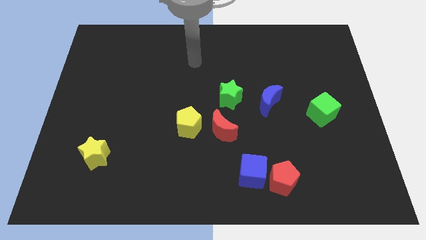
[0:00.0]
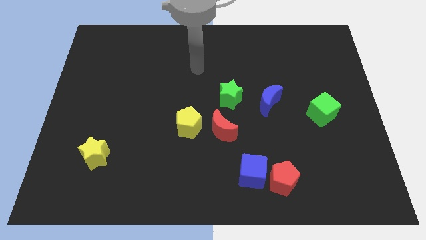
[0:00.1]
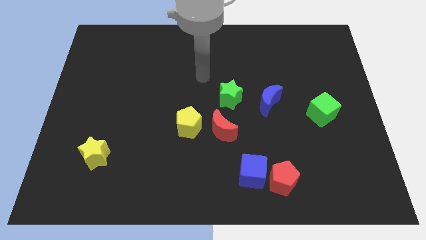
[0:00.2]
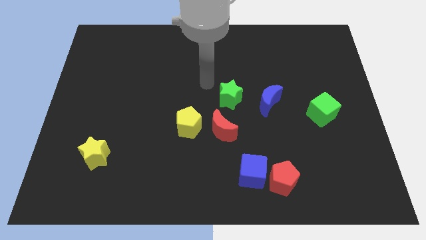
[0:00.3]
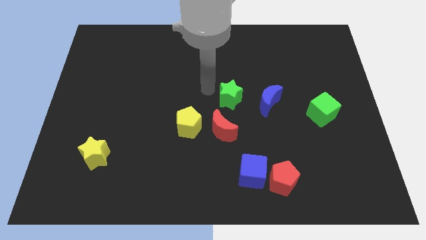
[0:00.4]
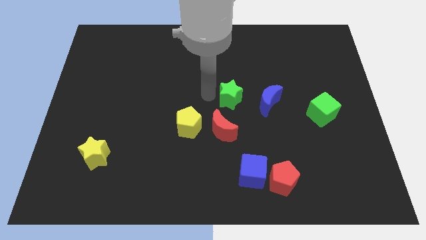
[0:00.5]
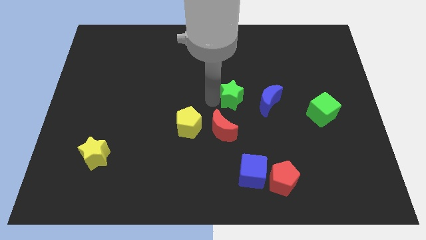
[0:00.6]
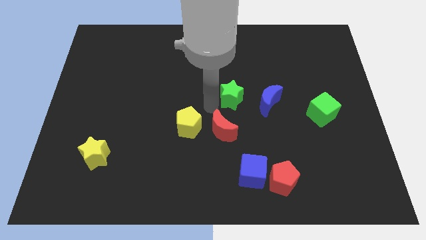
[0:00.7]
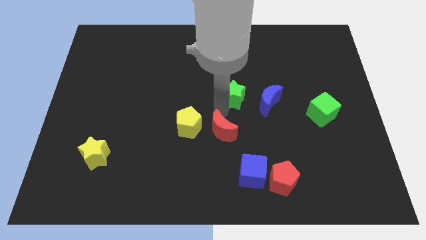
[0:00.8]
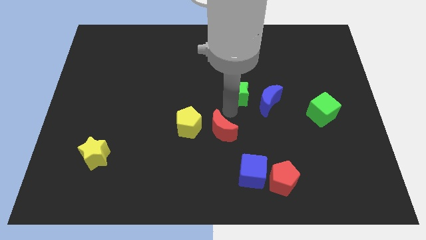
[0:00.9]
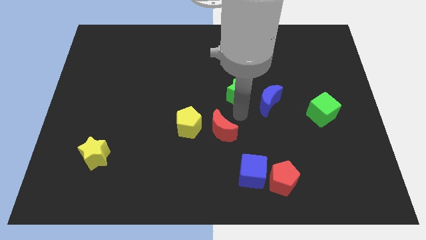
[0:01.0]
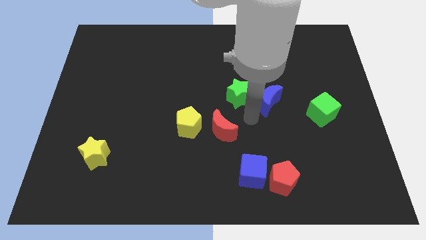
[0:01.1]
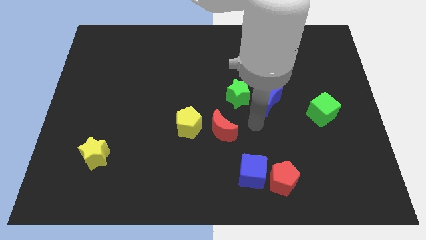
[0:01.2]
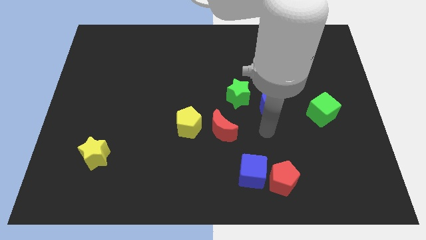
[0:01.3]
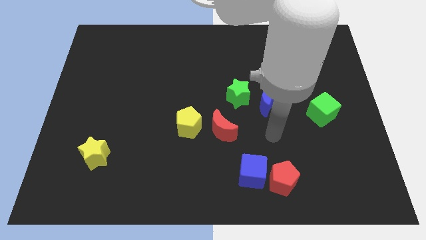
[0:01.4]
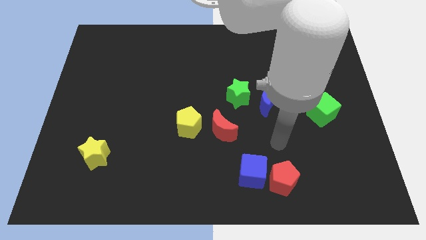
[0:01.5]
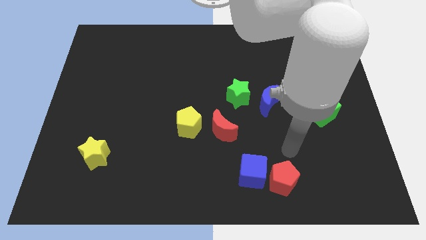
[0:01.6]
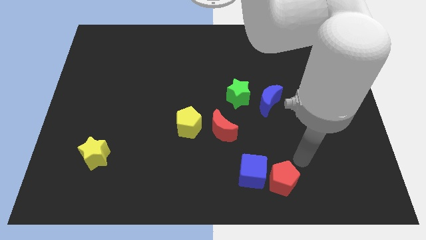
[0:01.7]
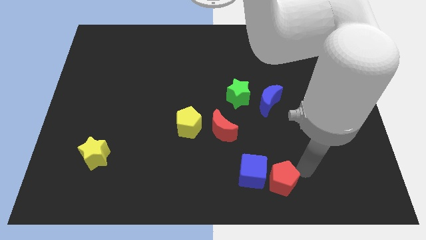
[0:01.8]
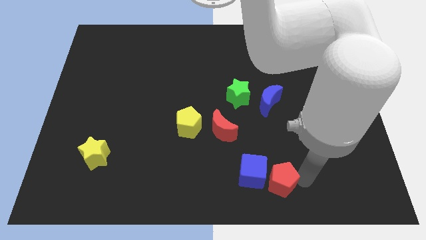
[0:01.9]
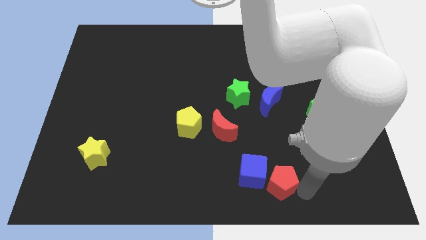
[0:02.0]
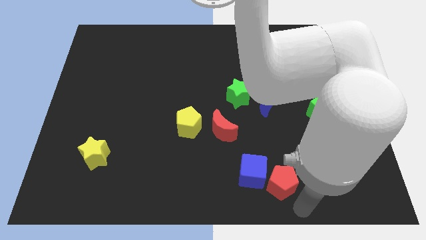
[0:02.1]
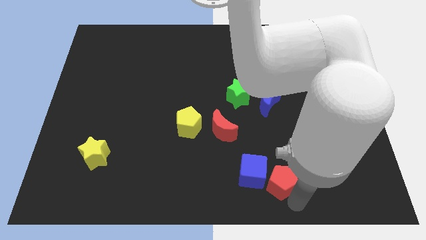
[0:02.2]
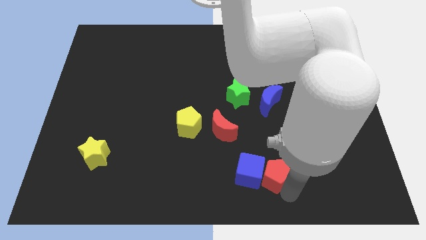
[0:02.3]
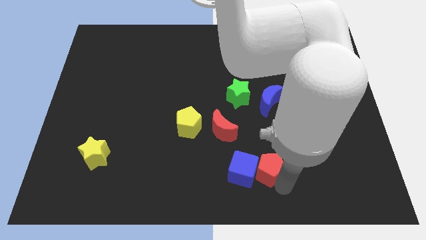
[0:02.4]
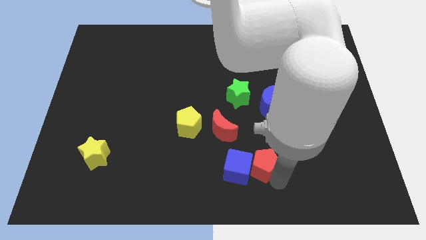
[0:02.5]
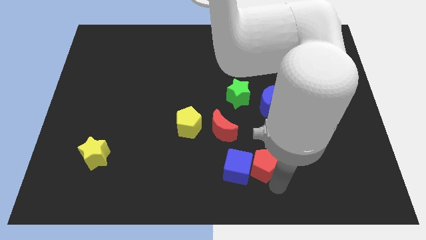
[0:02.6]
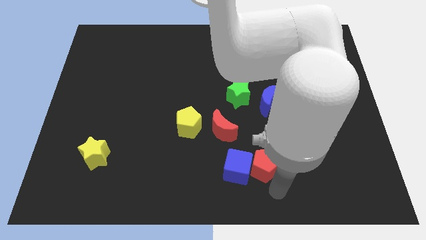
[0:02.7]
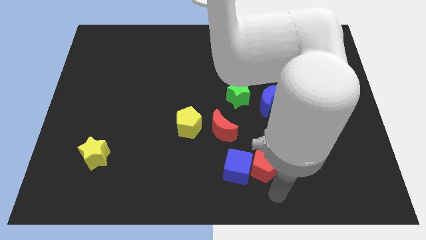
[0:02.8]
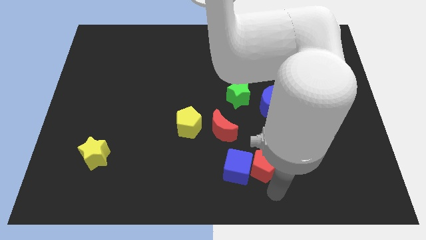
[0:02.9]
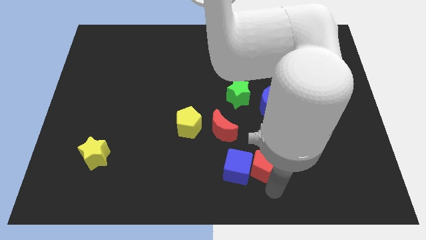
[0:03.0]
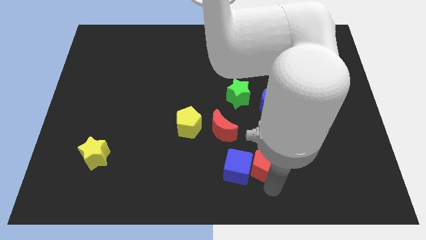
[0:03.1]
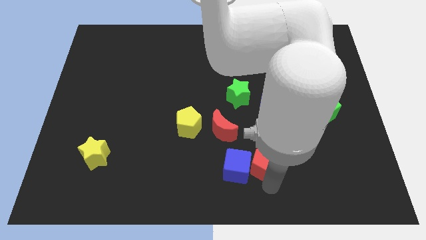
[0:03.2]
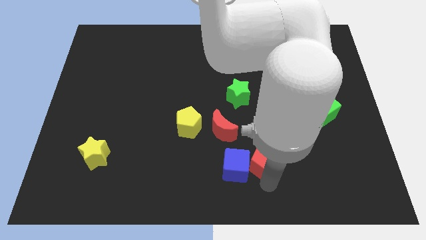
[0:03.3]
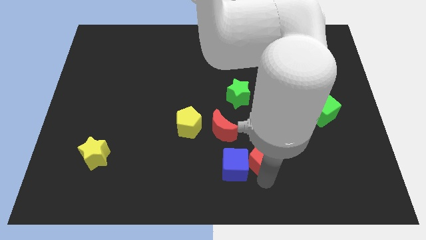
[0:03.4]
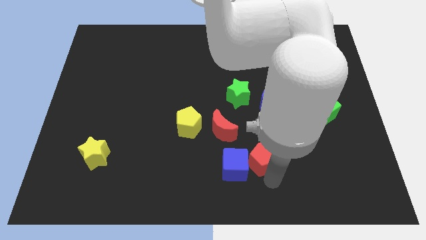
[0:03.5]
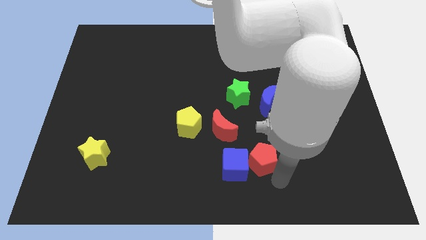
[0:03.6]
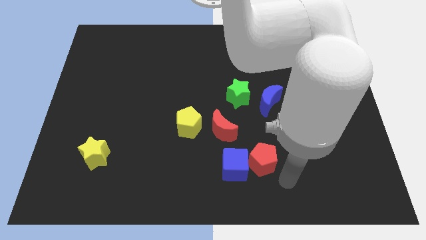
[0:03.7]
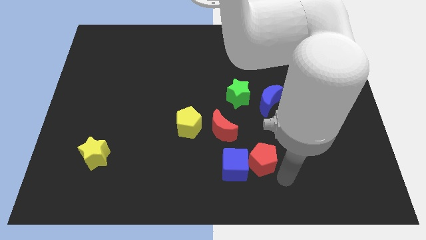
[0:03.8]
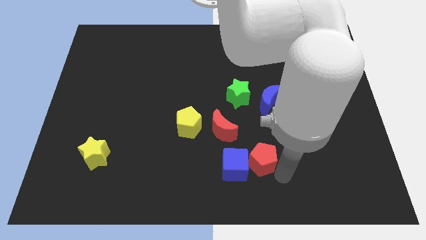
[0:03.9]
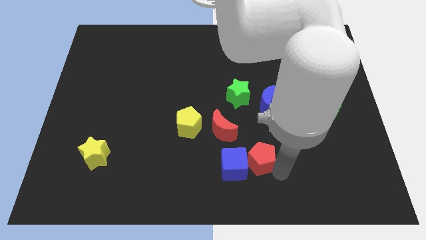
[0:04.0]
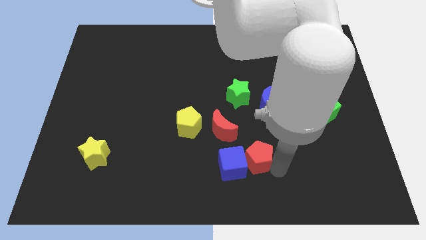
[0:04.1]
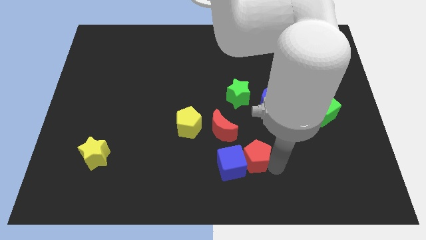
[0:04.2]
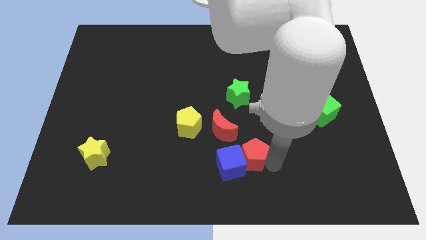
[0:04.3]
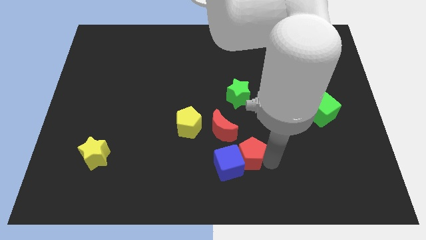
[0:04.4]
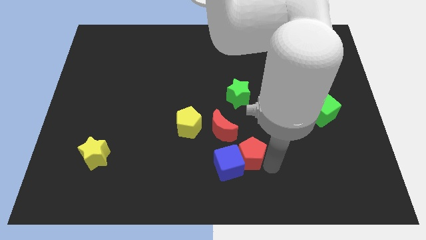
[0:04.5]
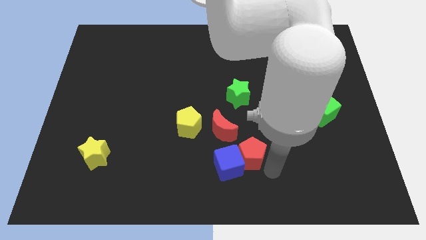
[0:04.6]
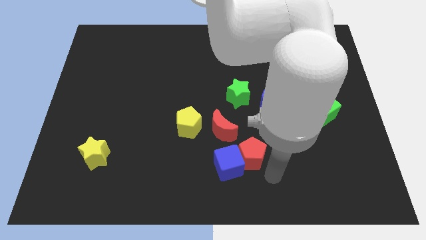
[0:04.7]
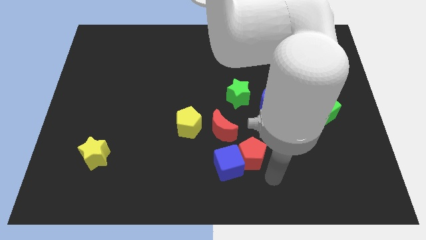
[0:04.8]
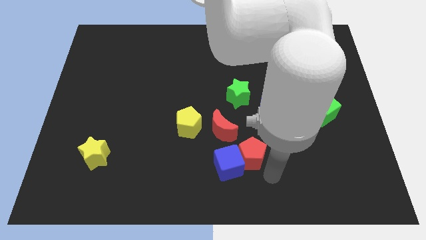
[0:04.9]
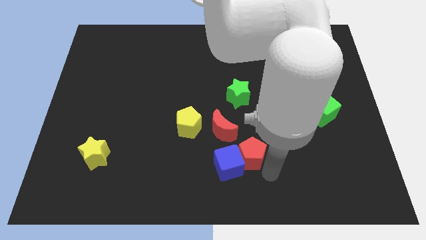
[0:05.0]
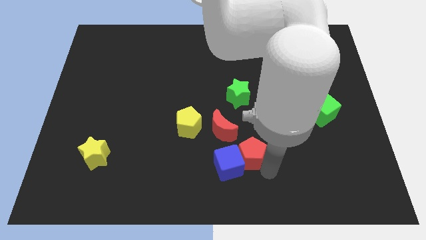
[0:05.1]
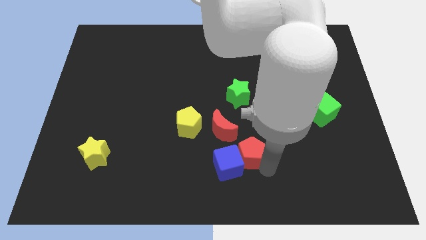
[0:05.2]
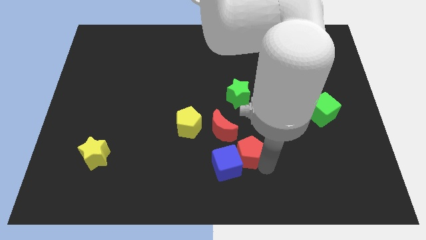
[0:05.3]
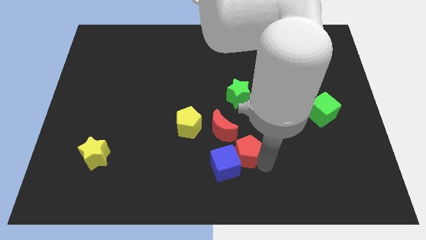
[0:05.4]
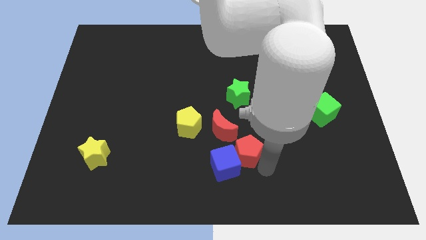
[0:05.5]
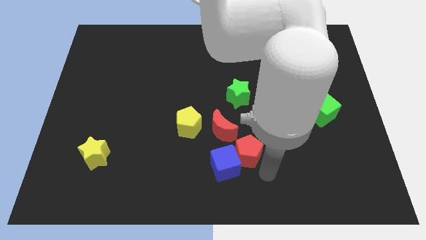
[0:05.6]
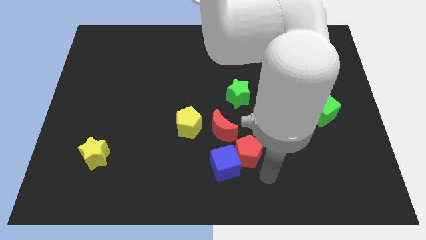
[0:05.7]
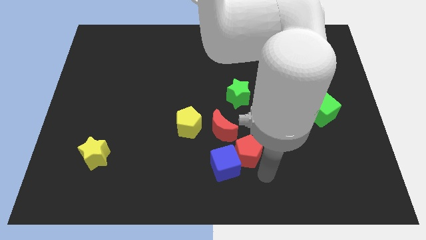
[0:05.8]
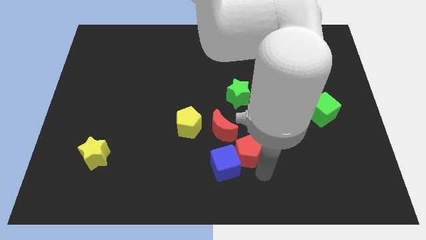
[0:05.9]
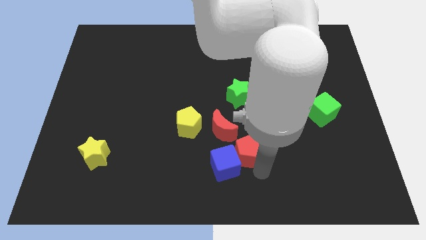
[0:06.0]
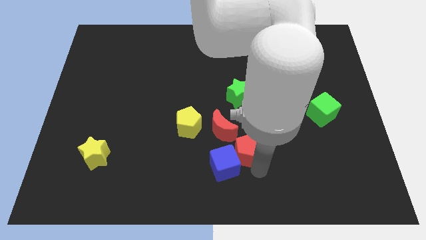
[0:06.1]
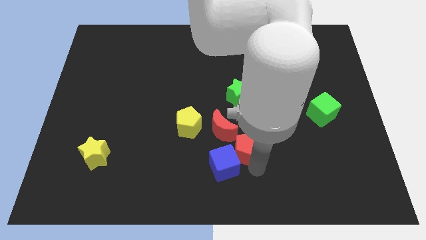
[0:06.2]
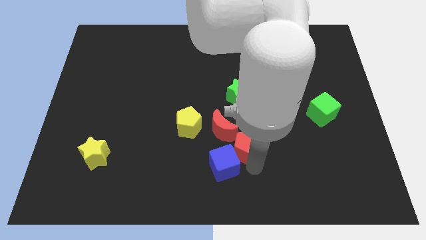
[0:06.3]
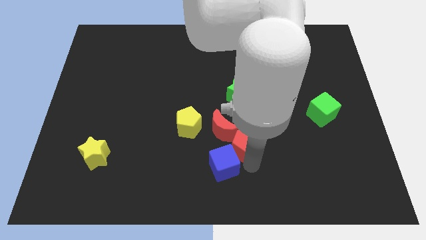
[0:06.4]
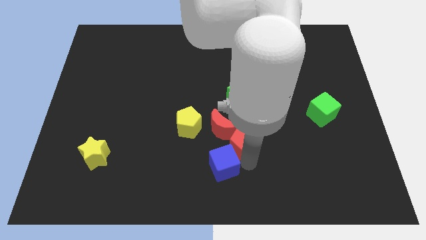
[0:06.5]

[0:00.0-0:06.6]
move the red pentagon to the red moon

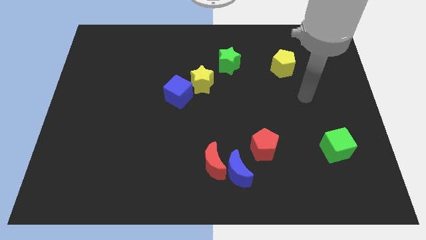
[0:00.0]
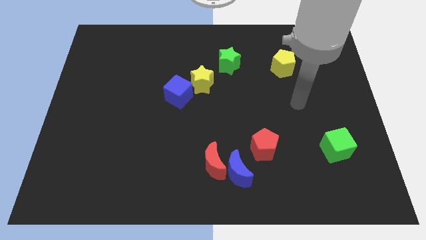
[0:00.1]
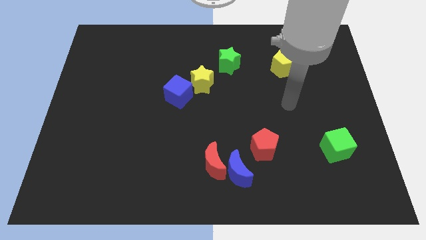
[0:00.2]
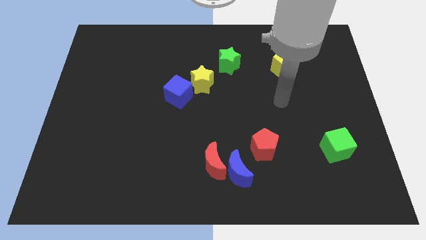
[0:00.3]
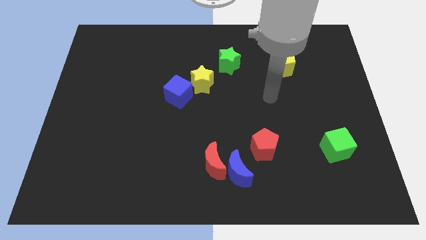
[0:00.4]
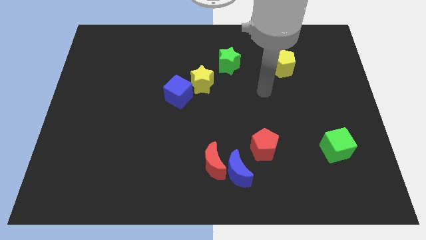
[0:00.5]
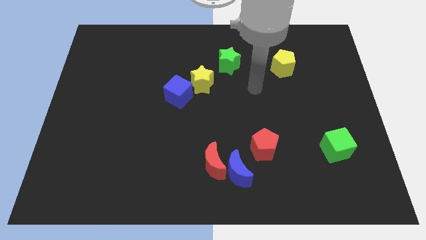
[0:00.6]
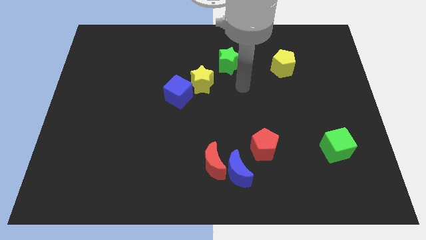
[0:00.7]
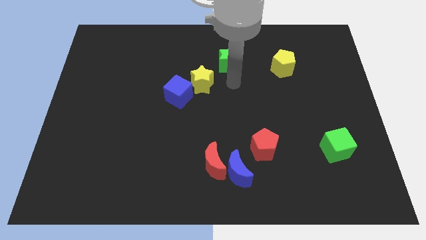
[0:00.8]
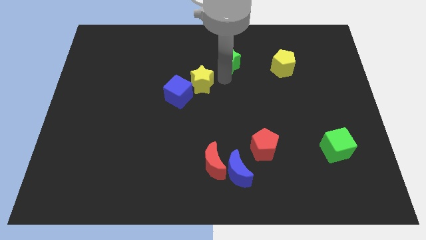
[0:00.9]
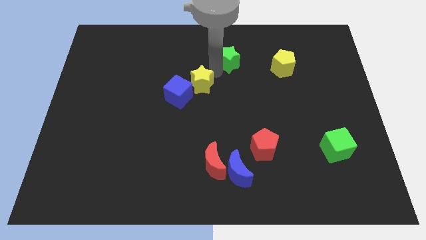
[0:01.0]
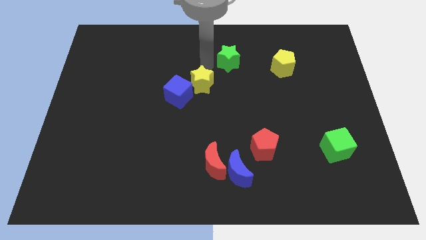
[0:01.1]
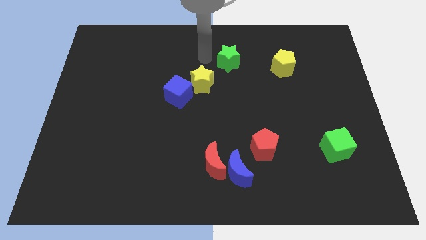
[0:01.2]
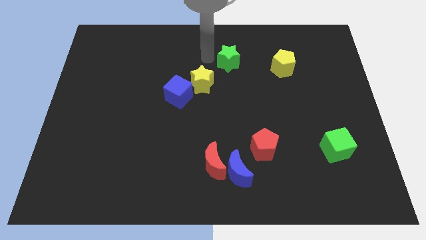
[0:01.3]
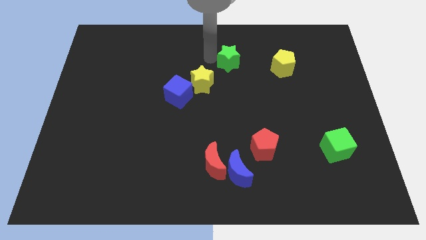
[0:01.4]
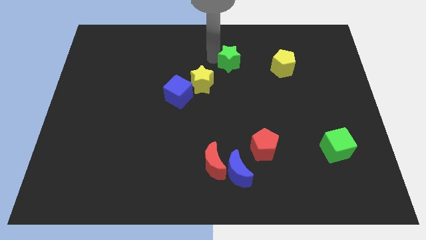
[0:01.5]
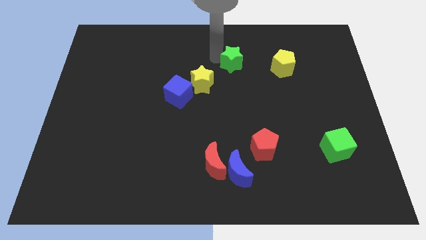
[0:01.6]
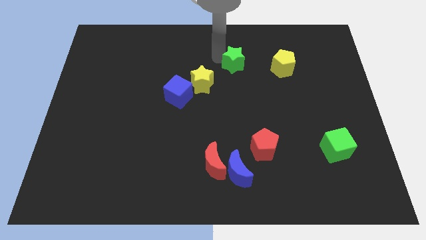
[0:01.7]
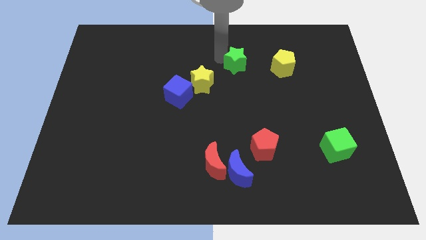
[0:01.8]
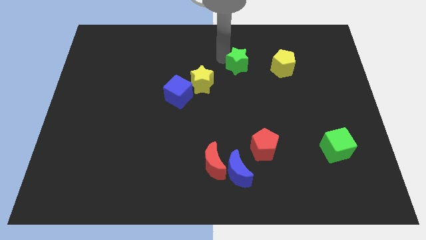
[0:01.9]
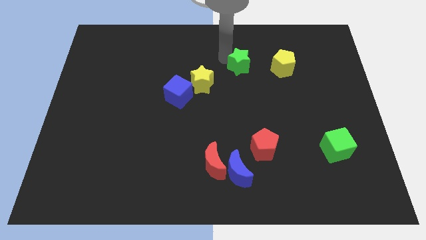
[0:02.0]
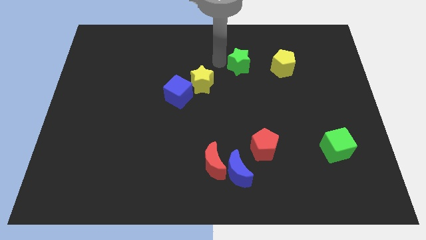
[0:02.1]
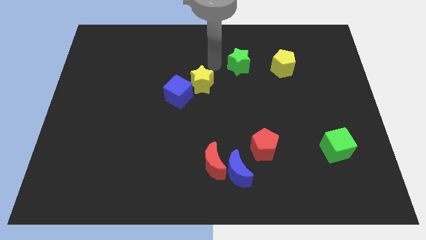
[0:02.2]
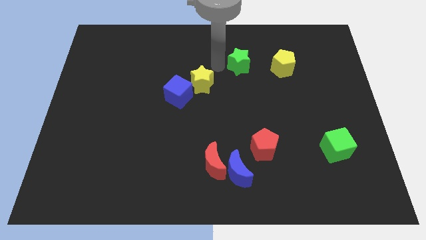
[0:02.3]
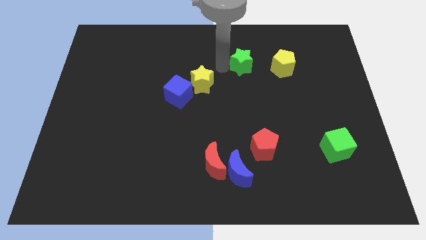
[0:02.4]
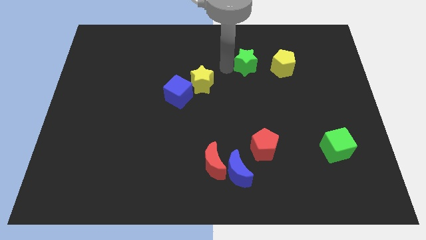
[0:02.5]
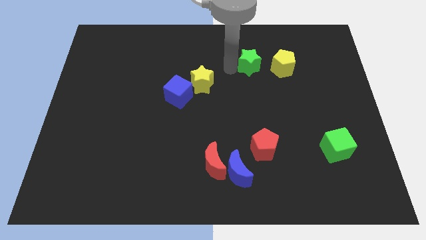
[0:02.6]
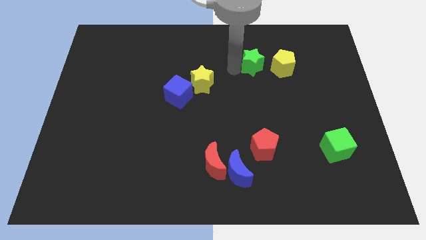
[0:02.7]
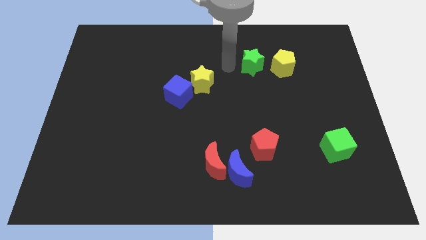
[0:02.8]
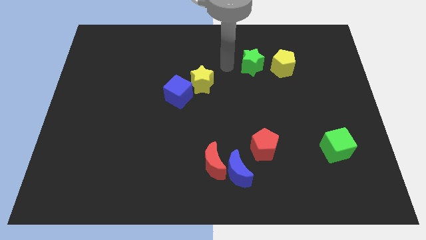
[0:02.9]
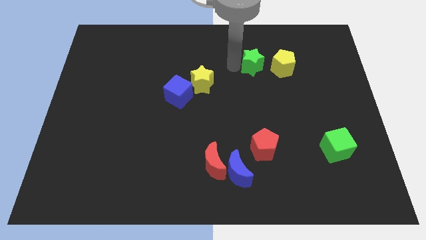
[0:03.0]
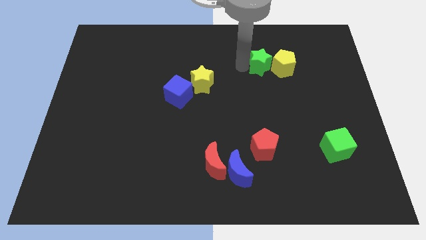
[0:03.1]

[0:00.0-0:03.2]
push the green star close to the yellow pentagon
